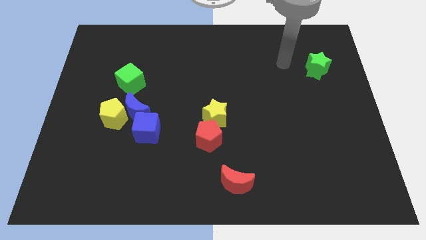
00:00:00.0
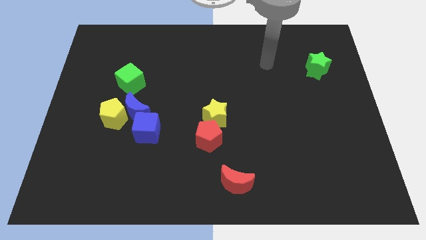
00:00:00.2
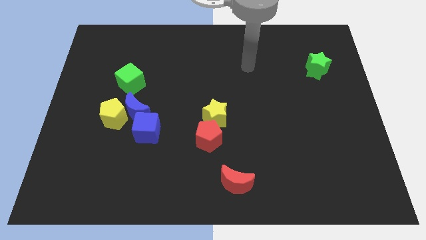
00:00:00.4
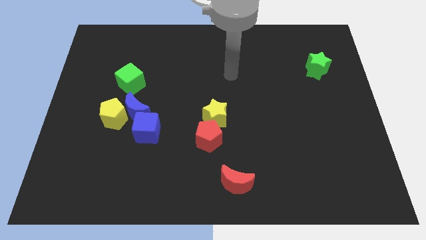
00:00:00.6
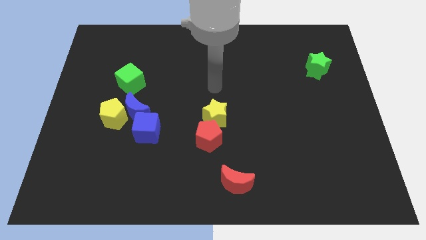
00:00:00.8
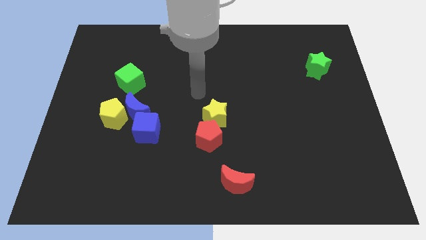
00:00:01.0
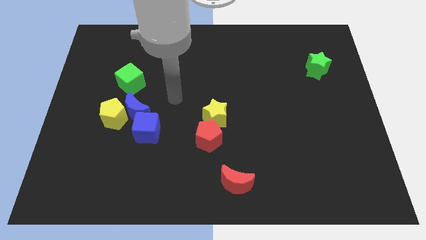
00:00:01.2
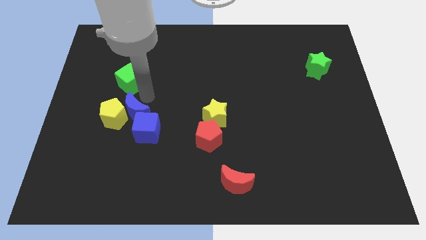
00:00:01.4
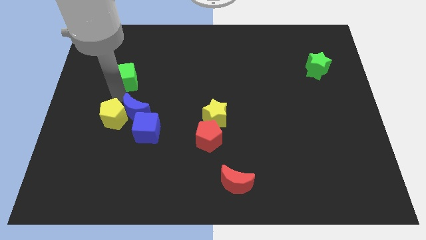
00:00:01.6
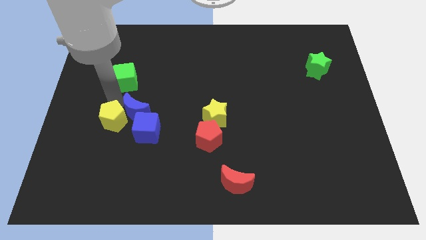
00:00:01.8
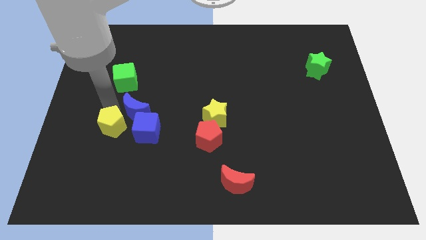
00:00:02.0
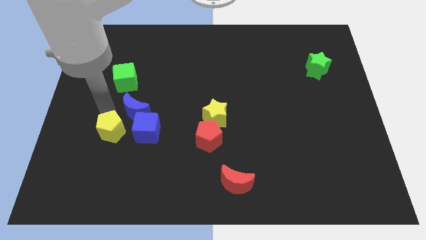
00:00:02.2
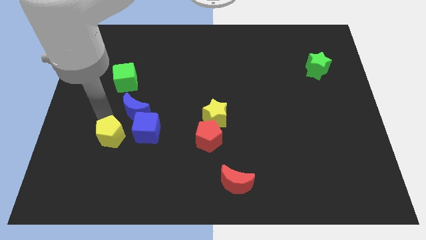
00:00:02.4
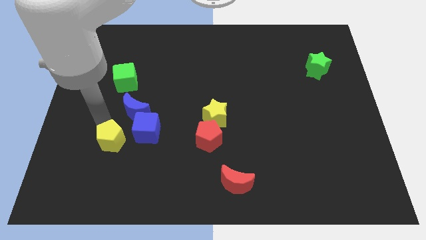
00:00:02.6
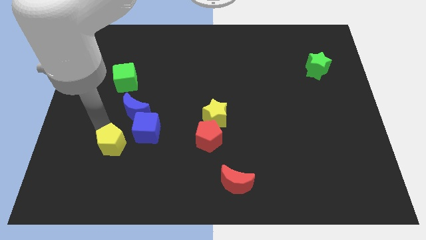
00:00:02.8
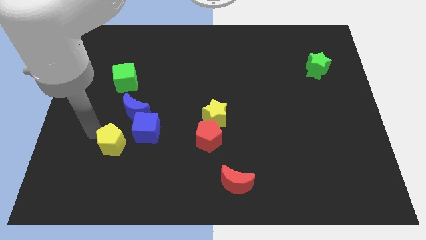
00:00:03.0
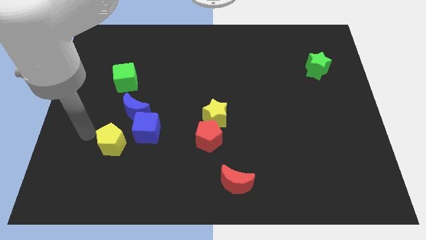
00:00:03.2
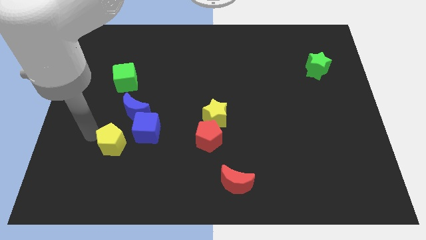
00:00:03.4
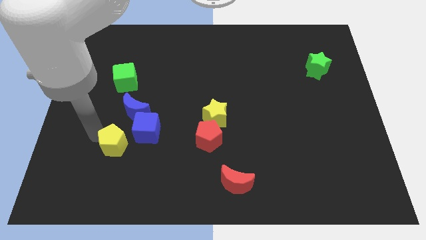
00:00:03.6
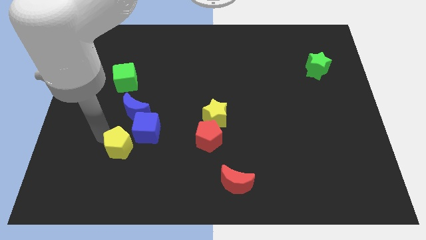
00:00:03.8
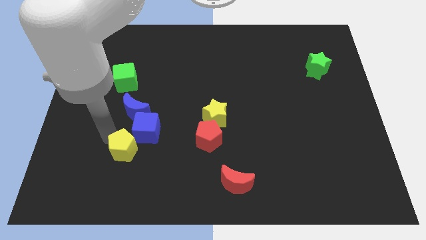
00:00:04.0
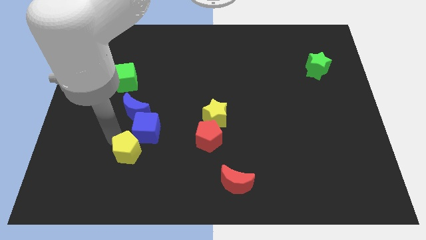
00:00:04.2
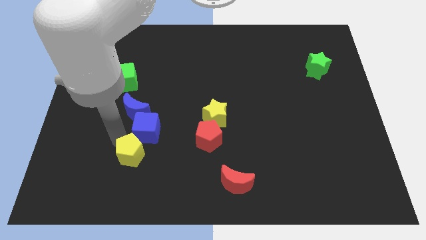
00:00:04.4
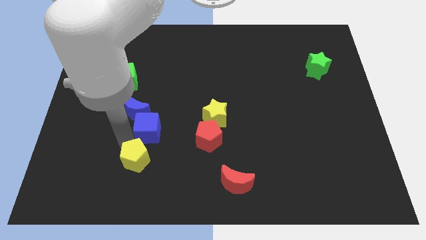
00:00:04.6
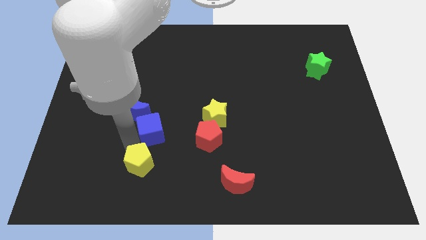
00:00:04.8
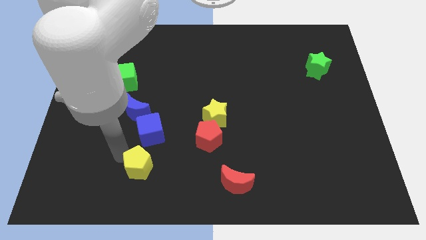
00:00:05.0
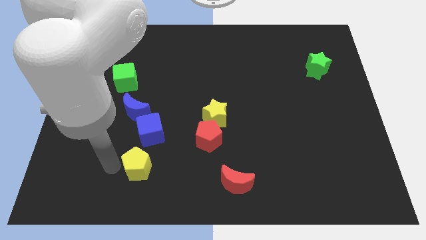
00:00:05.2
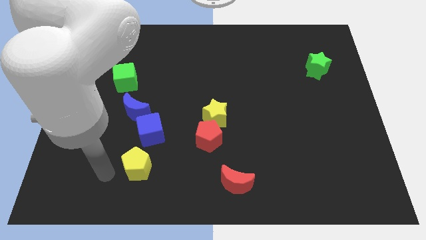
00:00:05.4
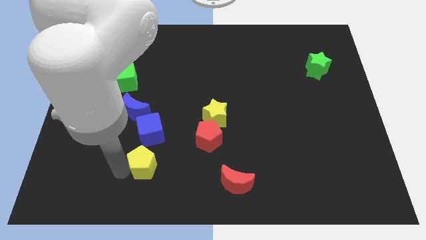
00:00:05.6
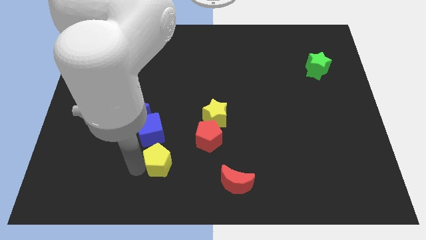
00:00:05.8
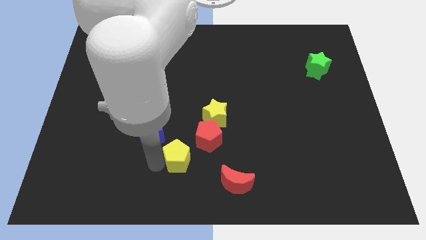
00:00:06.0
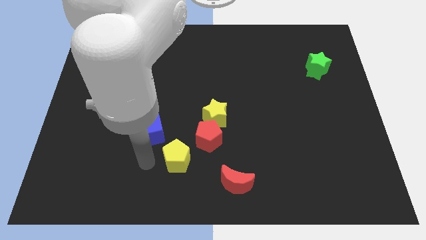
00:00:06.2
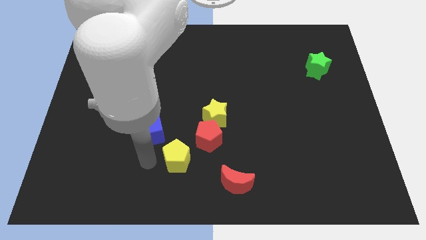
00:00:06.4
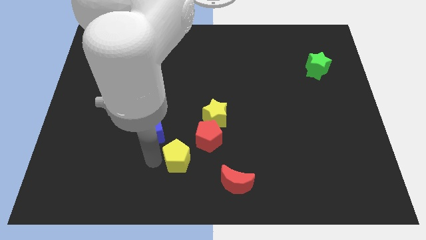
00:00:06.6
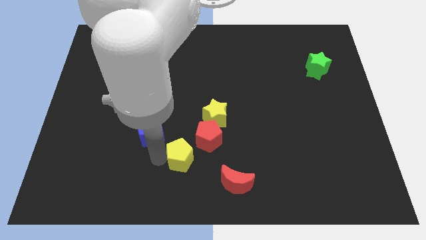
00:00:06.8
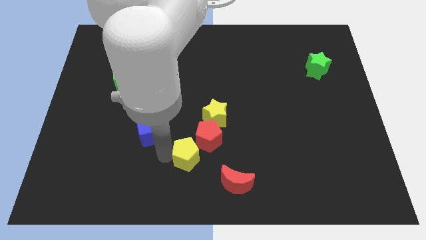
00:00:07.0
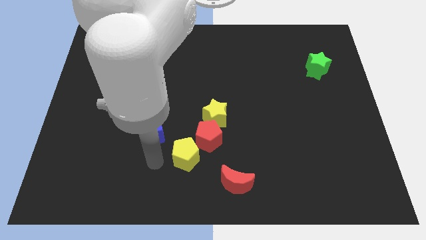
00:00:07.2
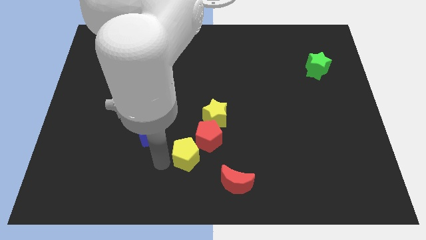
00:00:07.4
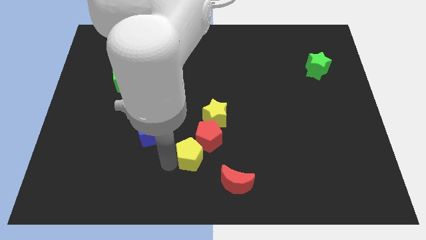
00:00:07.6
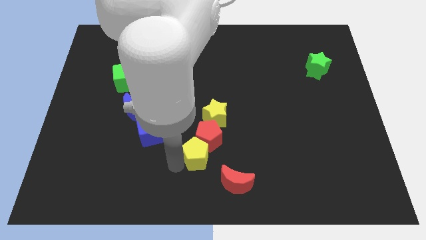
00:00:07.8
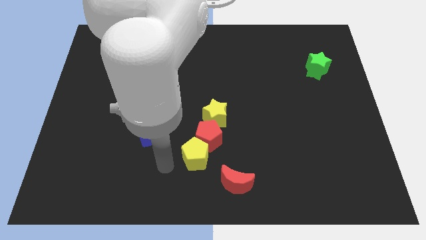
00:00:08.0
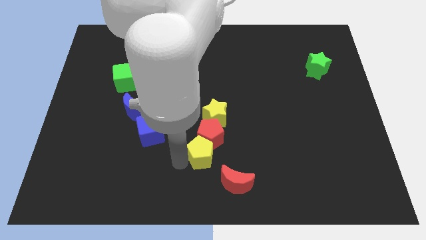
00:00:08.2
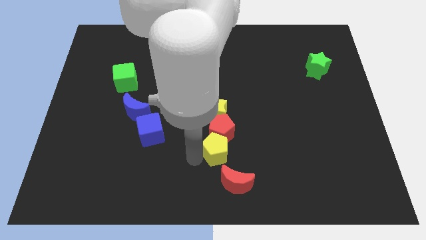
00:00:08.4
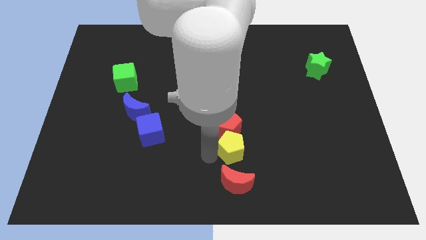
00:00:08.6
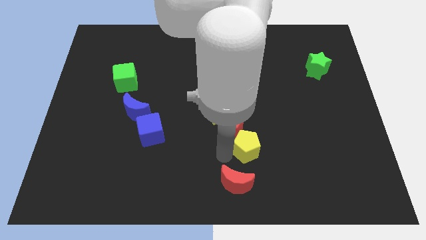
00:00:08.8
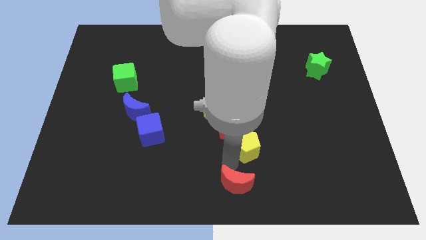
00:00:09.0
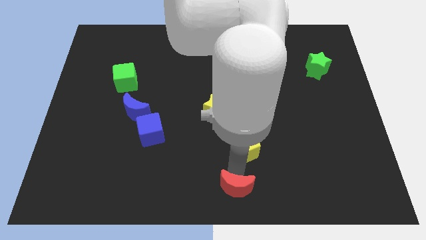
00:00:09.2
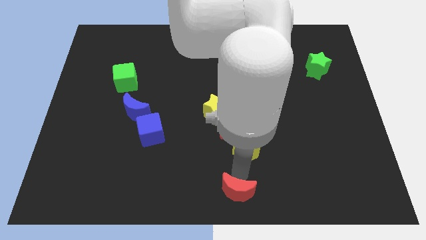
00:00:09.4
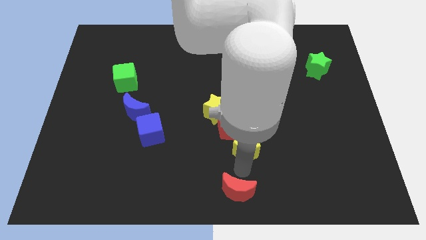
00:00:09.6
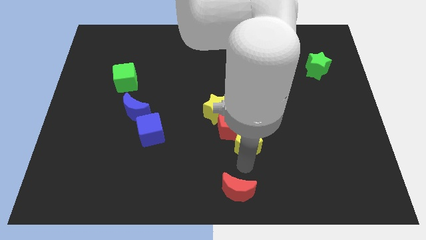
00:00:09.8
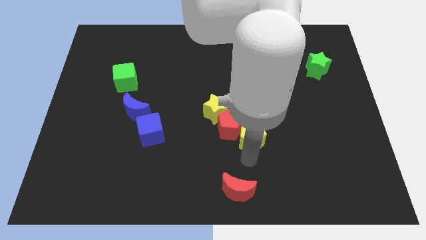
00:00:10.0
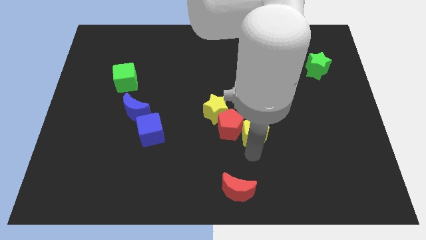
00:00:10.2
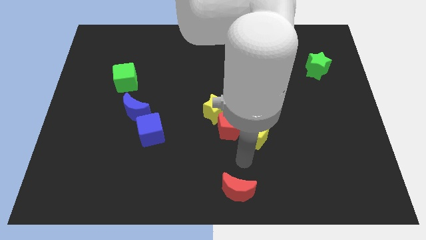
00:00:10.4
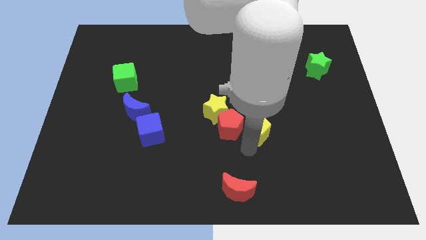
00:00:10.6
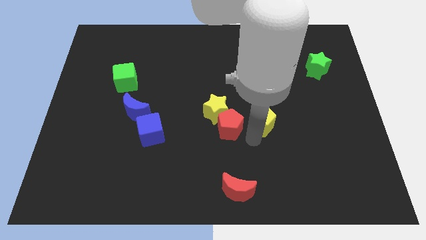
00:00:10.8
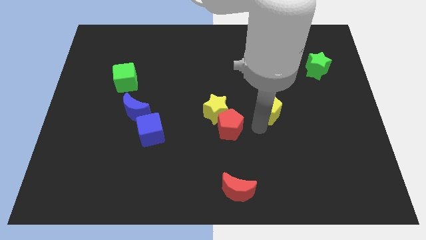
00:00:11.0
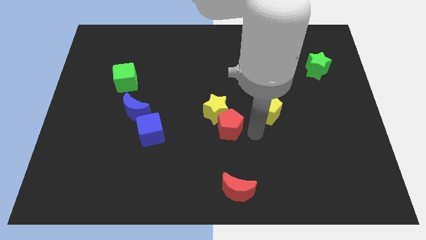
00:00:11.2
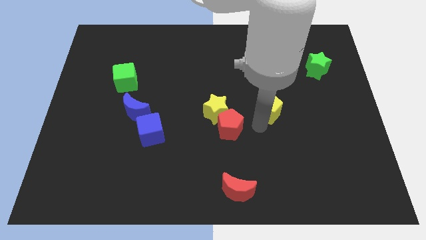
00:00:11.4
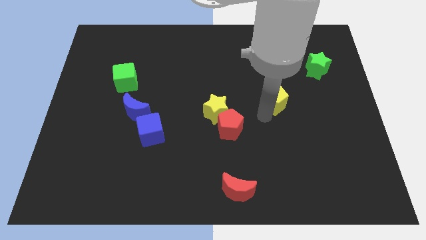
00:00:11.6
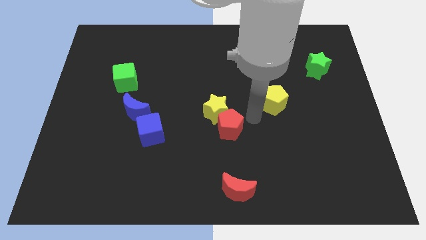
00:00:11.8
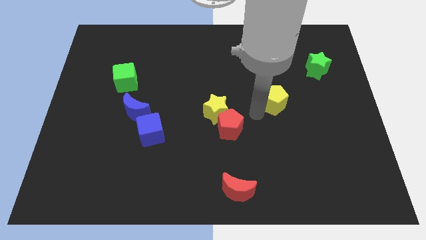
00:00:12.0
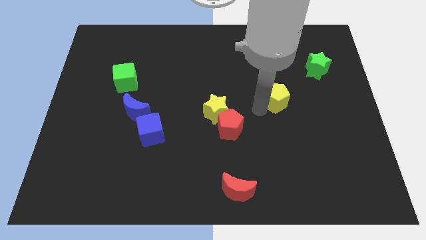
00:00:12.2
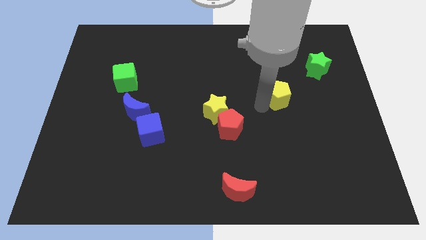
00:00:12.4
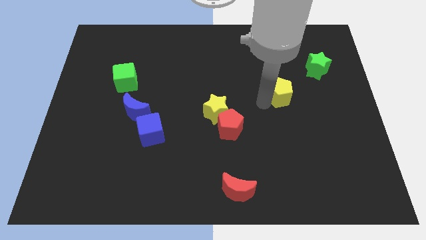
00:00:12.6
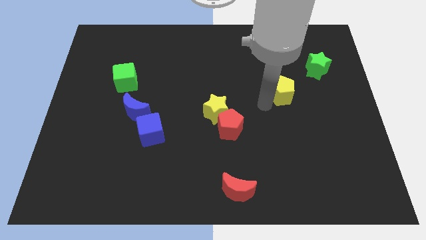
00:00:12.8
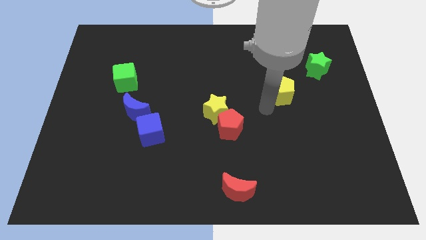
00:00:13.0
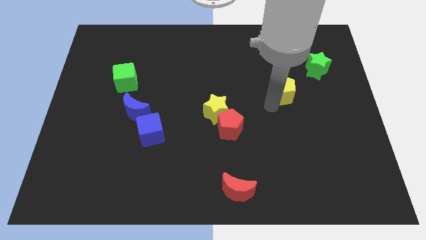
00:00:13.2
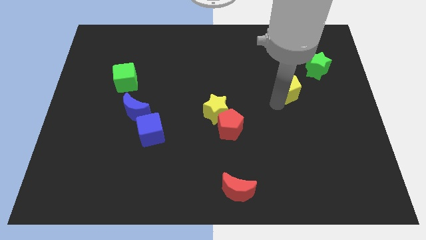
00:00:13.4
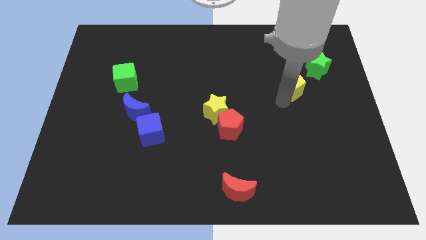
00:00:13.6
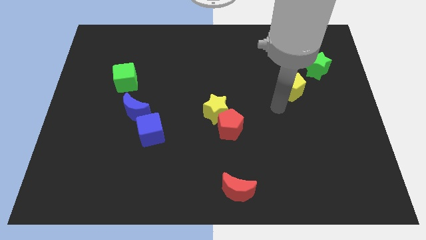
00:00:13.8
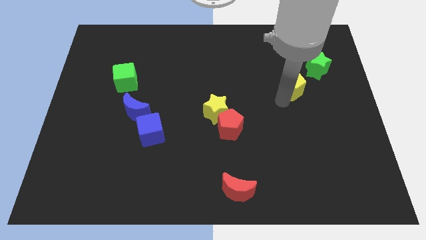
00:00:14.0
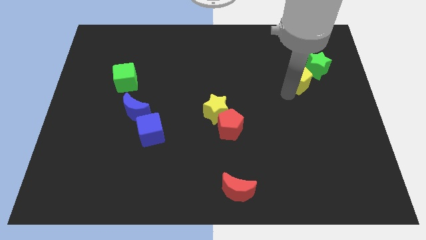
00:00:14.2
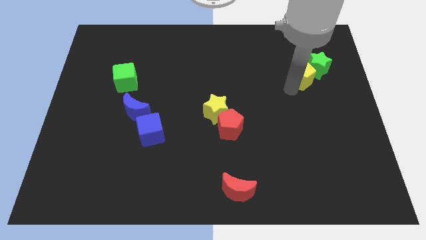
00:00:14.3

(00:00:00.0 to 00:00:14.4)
slide the yellow pentagon next to the green star

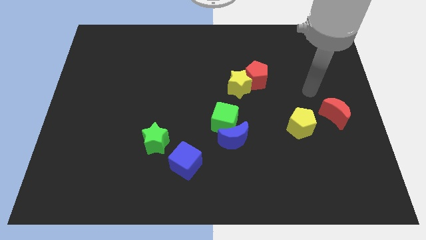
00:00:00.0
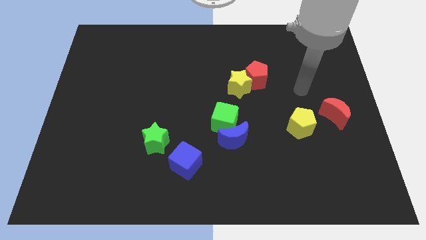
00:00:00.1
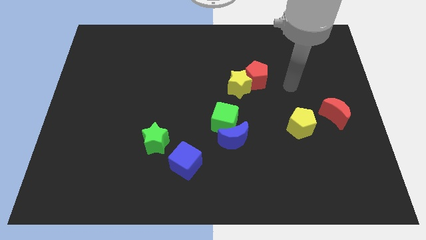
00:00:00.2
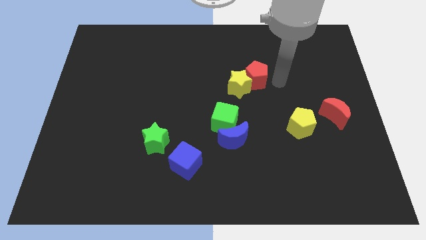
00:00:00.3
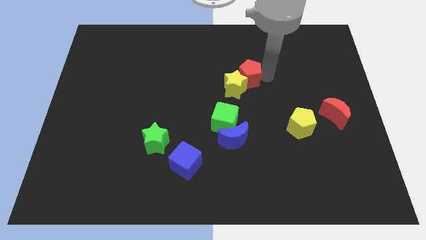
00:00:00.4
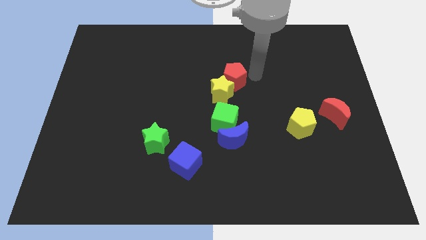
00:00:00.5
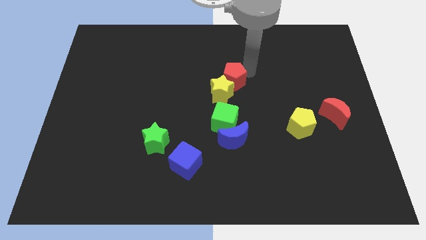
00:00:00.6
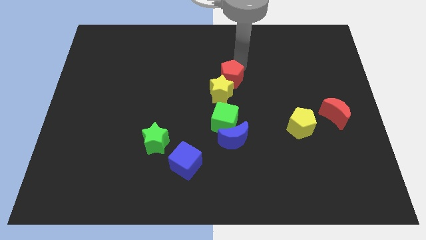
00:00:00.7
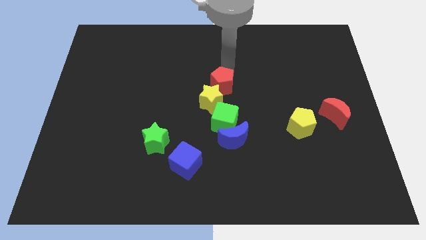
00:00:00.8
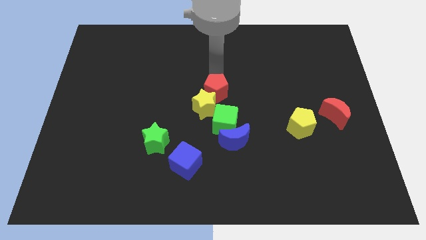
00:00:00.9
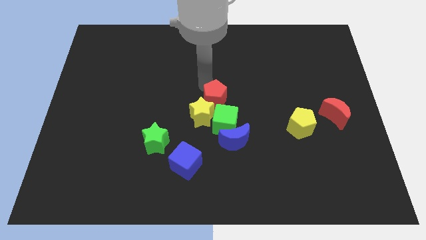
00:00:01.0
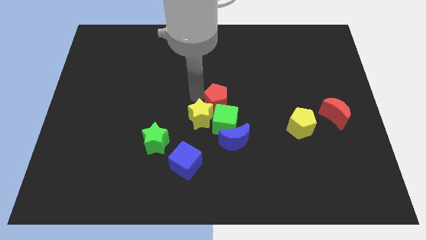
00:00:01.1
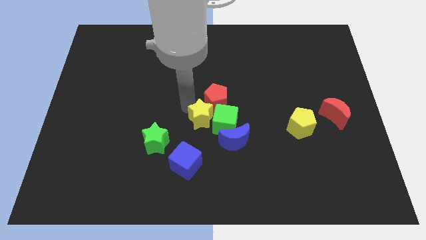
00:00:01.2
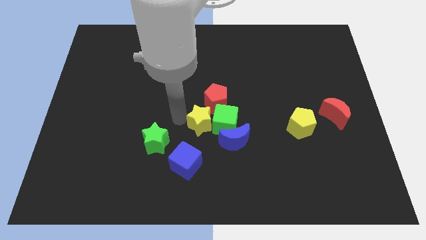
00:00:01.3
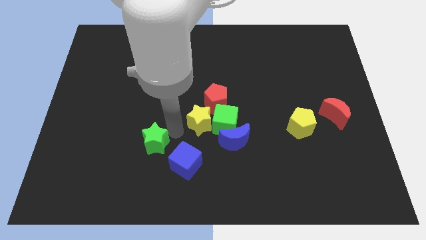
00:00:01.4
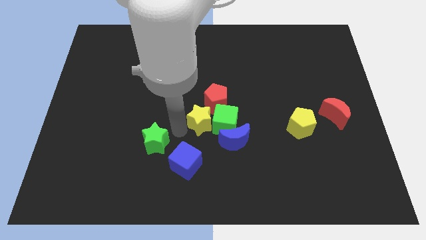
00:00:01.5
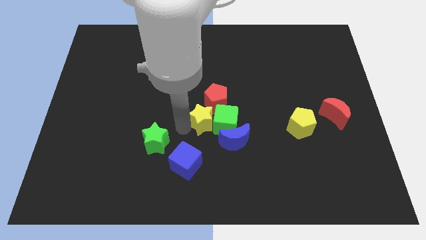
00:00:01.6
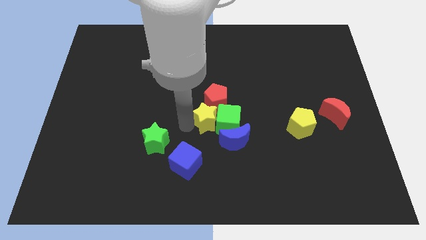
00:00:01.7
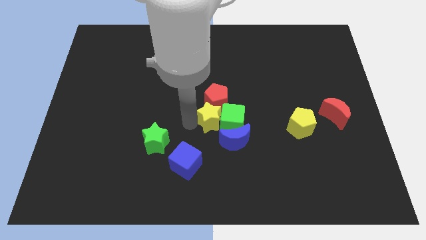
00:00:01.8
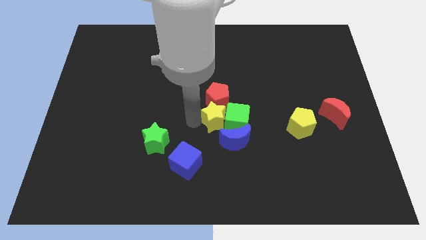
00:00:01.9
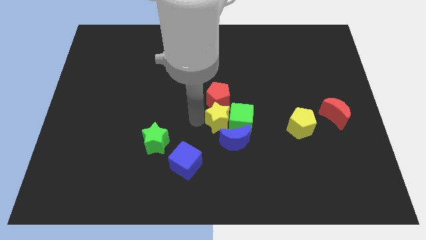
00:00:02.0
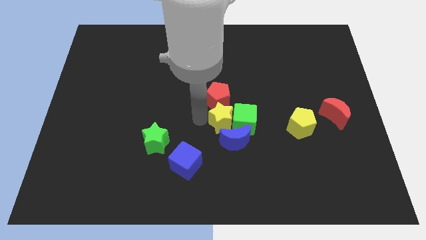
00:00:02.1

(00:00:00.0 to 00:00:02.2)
push the yellow star towards the blue moon
